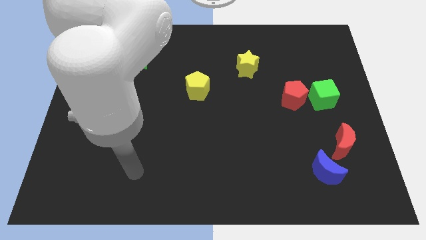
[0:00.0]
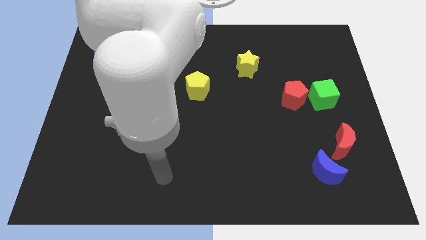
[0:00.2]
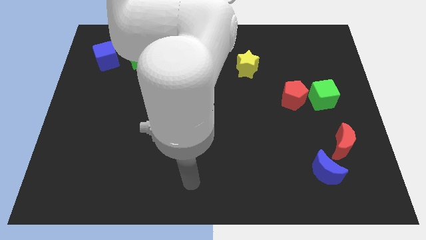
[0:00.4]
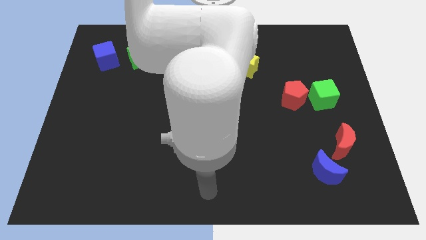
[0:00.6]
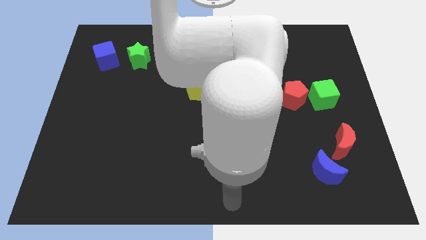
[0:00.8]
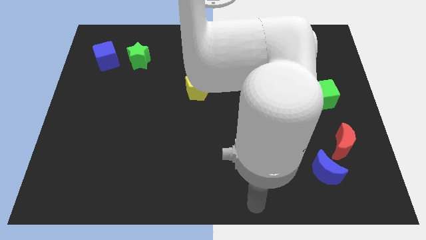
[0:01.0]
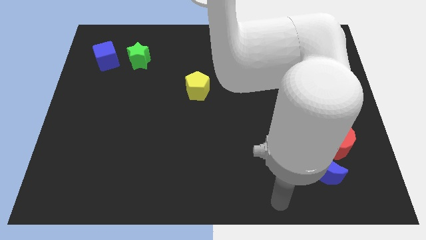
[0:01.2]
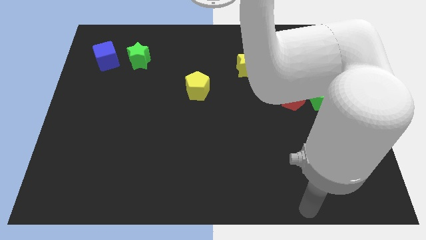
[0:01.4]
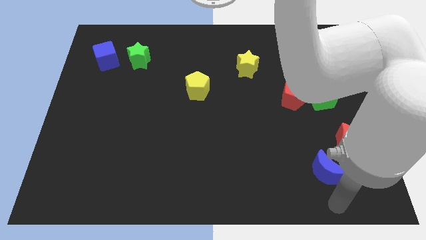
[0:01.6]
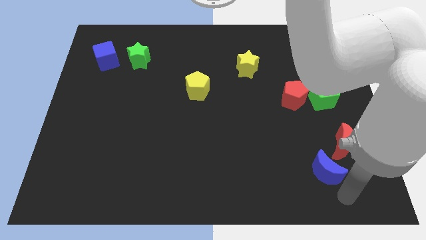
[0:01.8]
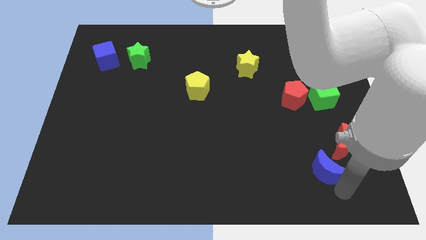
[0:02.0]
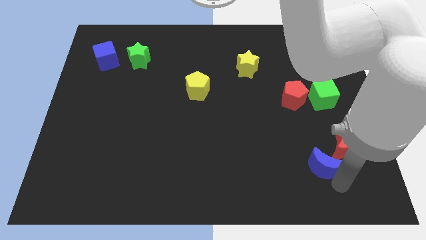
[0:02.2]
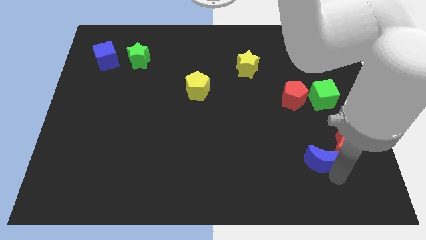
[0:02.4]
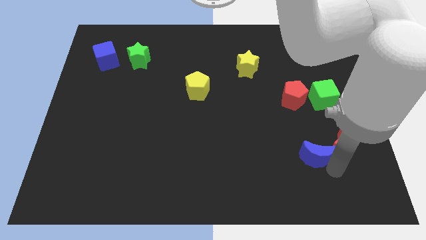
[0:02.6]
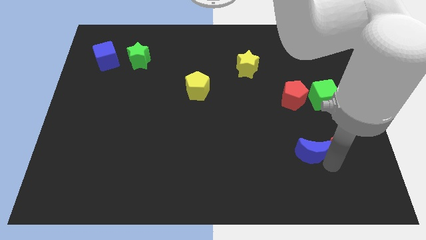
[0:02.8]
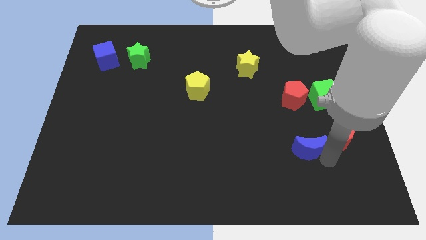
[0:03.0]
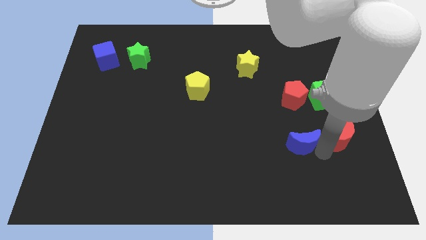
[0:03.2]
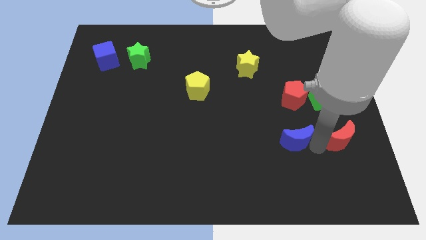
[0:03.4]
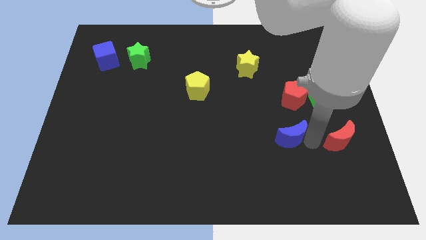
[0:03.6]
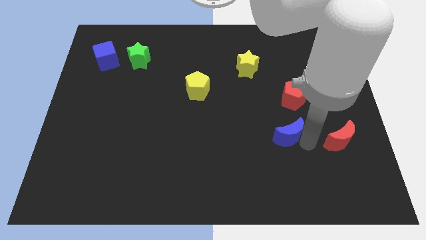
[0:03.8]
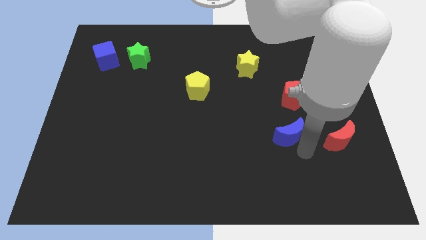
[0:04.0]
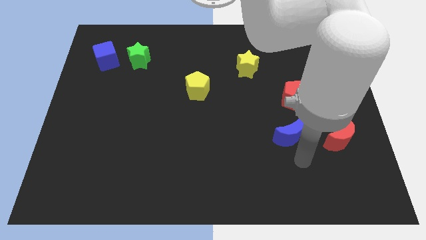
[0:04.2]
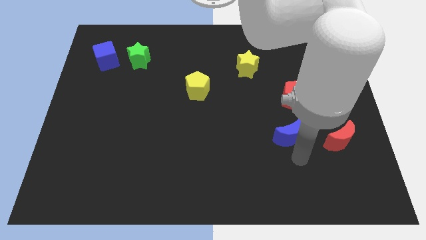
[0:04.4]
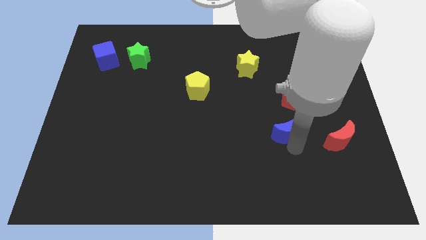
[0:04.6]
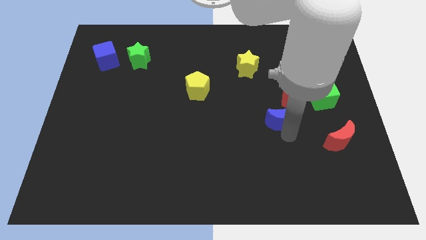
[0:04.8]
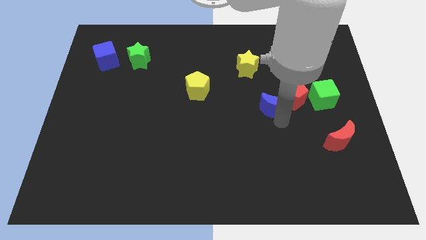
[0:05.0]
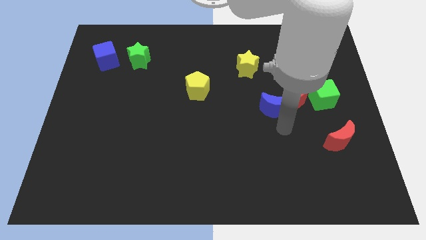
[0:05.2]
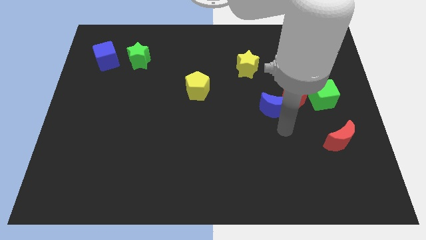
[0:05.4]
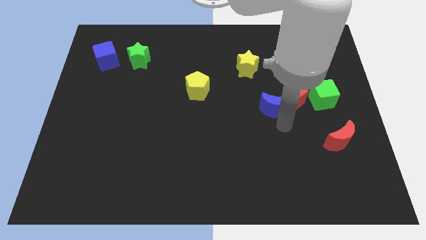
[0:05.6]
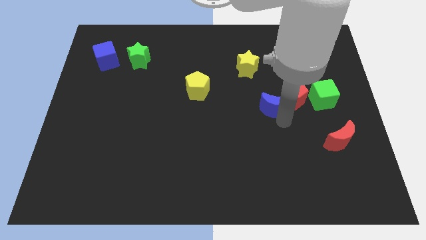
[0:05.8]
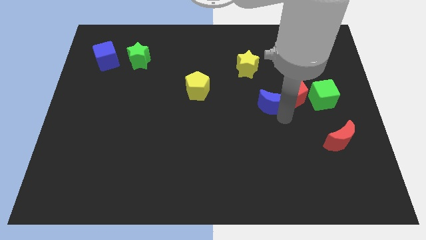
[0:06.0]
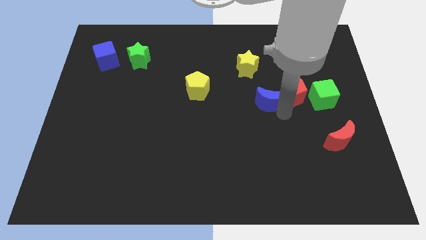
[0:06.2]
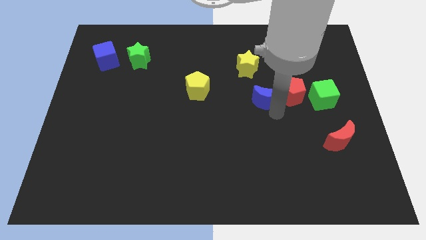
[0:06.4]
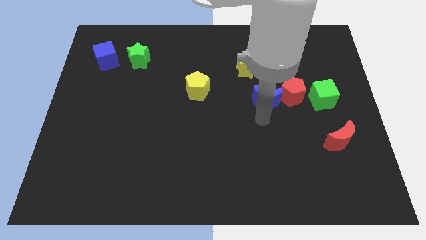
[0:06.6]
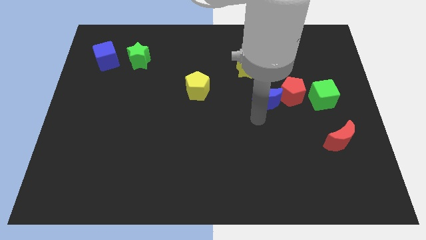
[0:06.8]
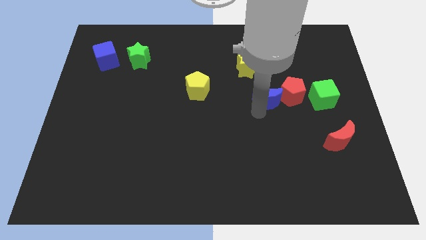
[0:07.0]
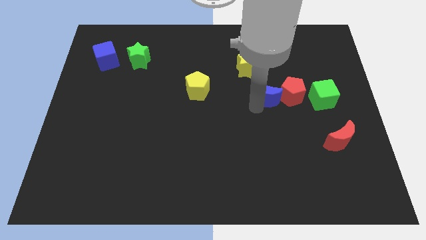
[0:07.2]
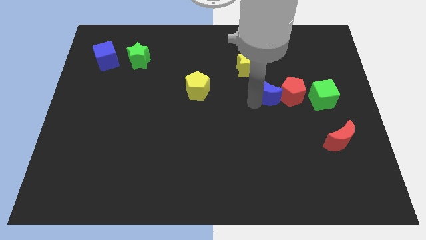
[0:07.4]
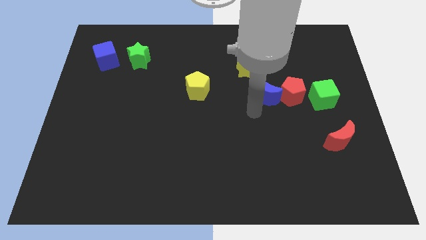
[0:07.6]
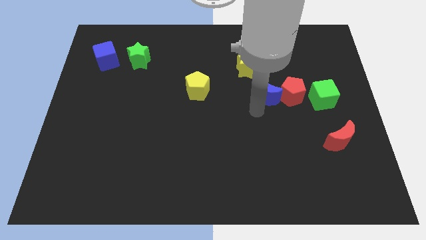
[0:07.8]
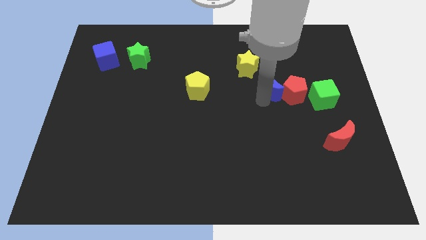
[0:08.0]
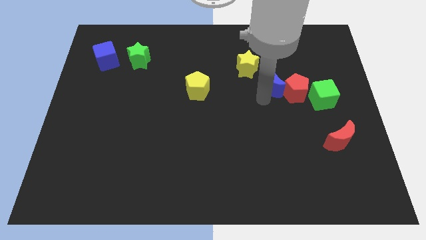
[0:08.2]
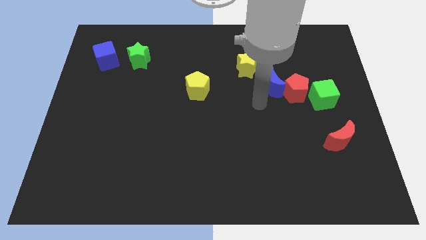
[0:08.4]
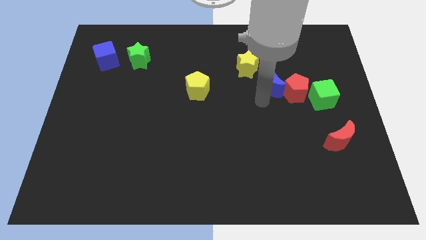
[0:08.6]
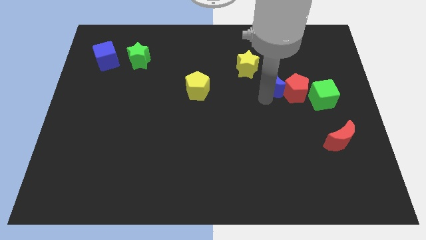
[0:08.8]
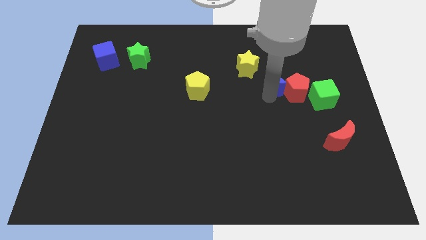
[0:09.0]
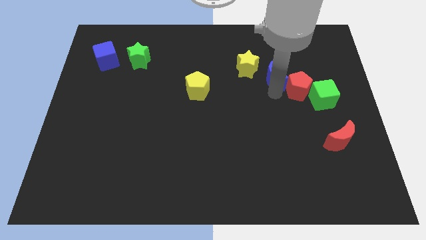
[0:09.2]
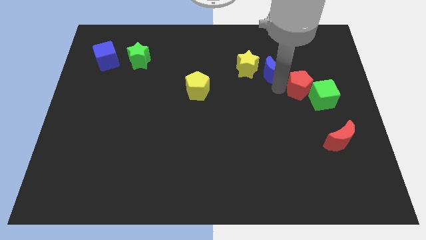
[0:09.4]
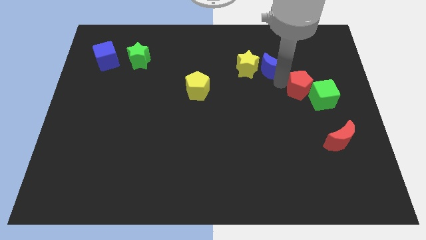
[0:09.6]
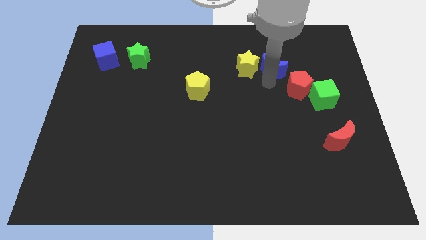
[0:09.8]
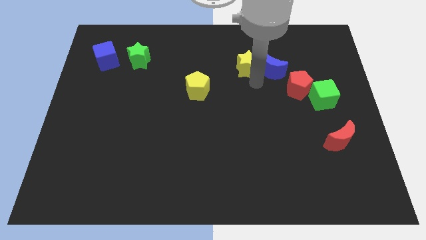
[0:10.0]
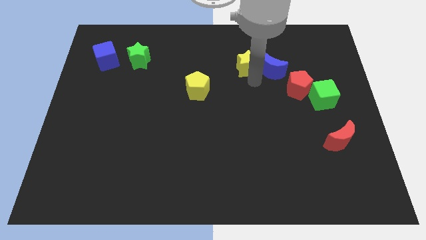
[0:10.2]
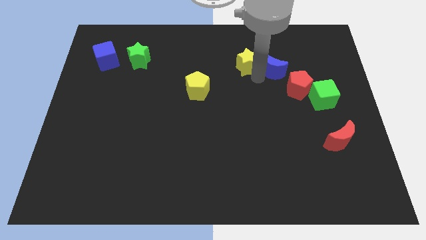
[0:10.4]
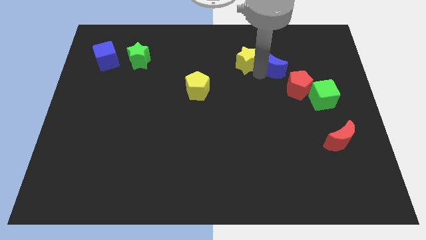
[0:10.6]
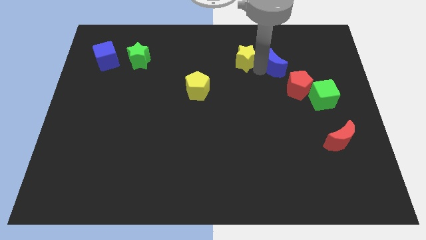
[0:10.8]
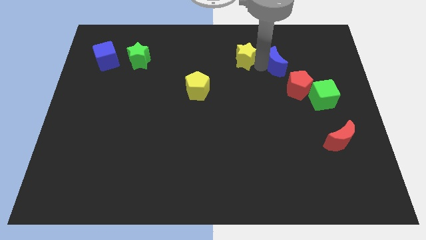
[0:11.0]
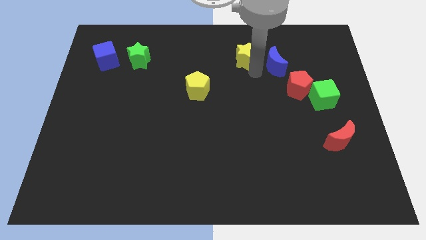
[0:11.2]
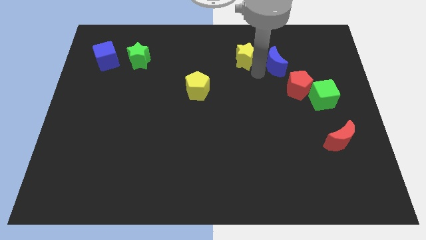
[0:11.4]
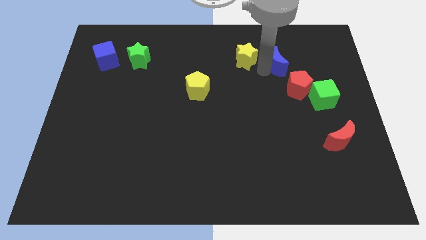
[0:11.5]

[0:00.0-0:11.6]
put the blue moon above the red pentagon

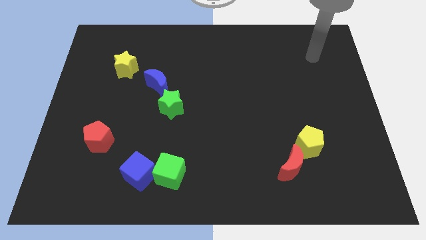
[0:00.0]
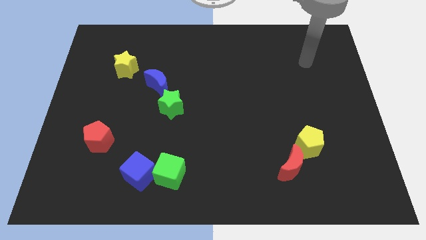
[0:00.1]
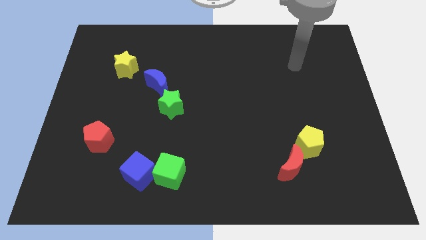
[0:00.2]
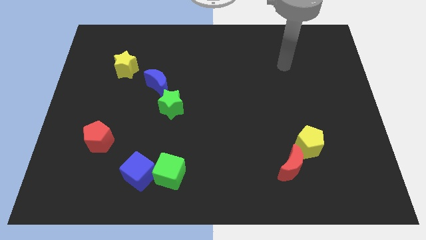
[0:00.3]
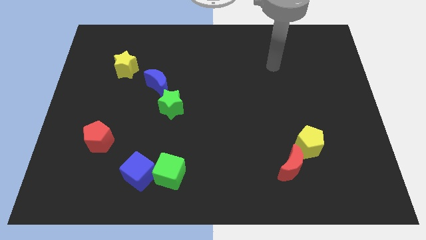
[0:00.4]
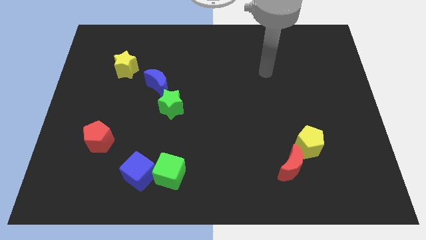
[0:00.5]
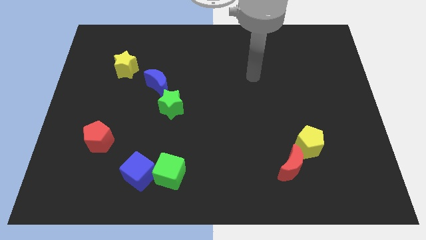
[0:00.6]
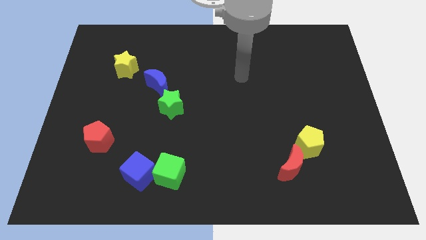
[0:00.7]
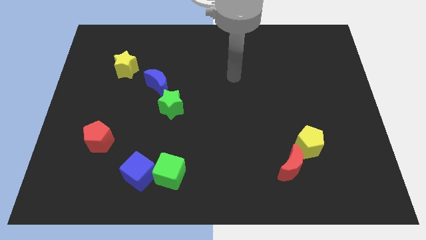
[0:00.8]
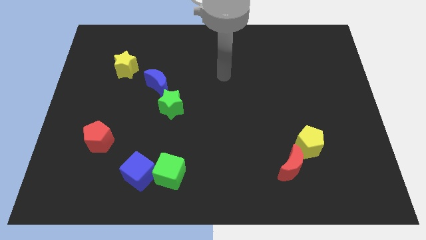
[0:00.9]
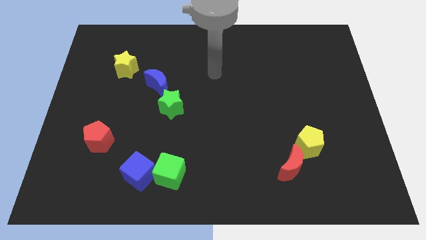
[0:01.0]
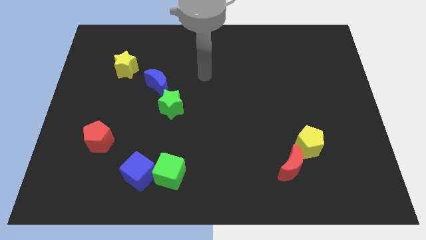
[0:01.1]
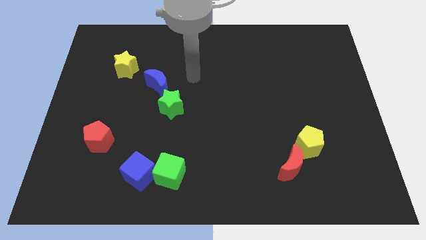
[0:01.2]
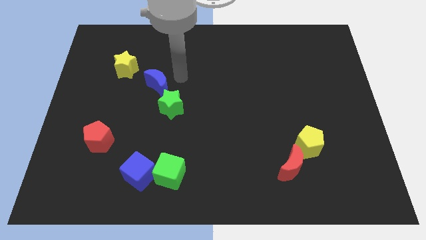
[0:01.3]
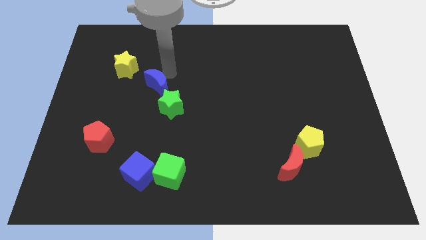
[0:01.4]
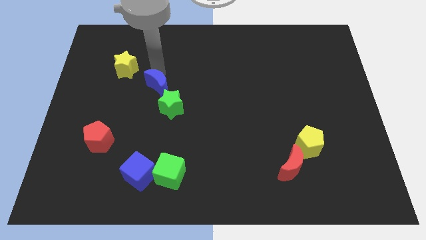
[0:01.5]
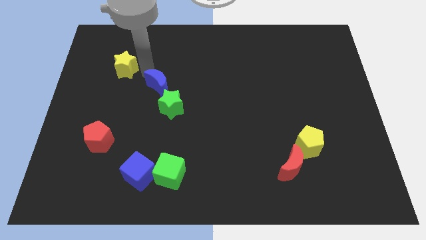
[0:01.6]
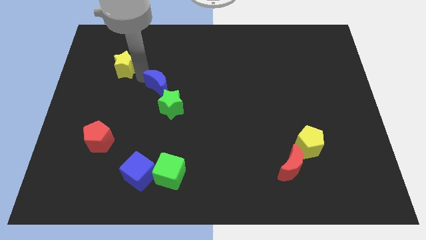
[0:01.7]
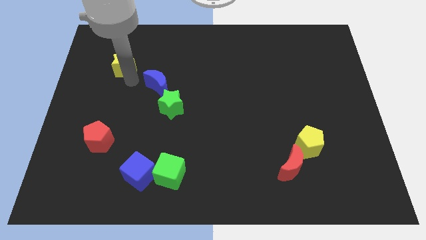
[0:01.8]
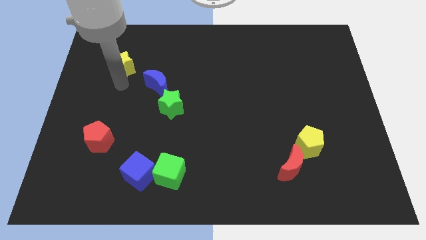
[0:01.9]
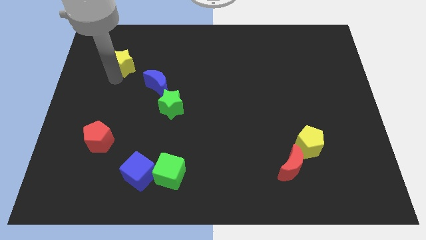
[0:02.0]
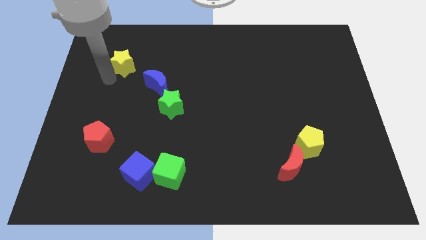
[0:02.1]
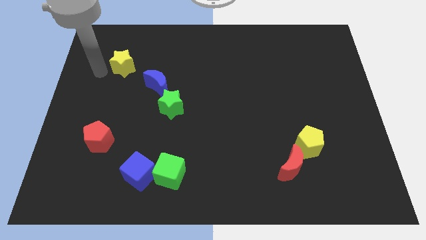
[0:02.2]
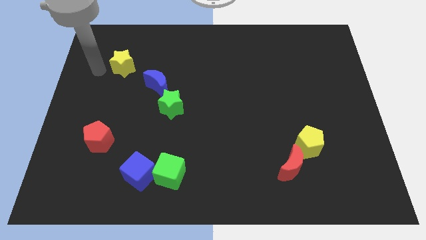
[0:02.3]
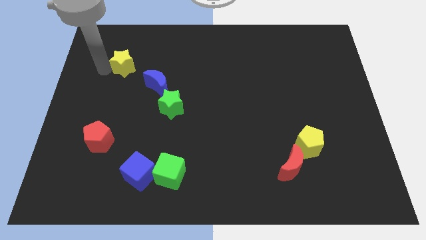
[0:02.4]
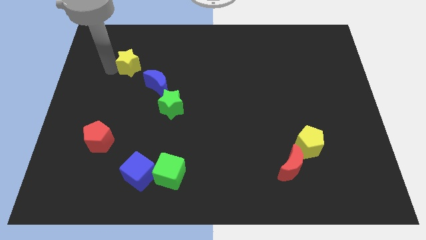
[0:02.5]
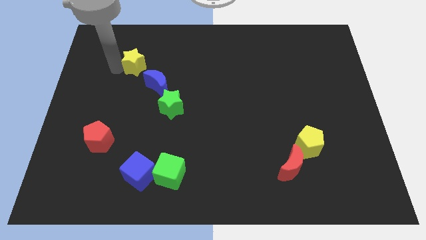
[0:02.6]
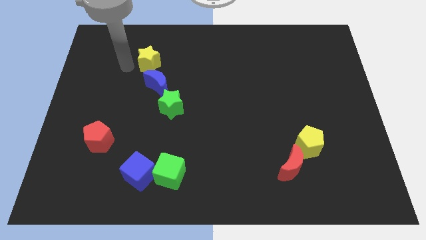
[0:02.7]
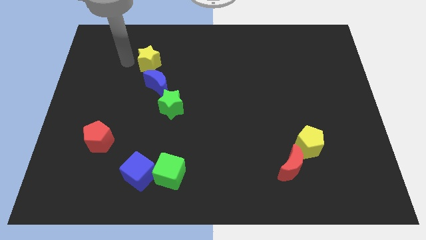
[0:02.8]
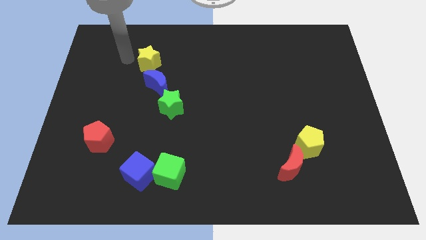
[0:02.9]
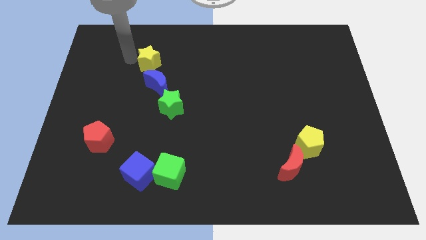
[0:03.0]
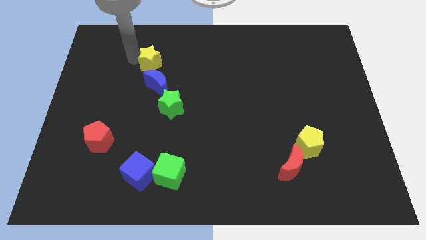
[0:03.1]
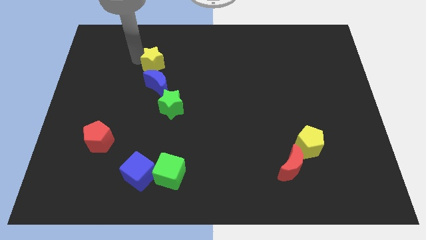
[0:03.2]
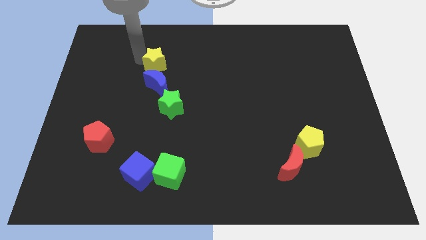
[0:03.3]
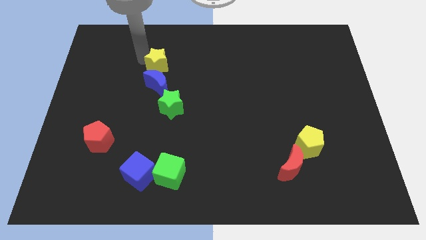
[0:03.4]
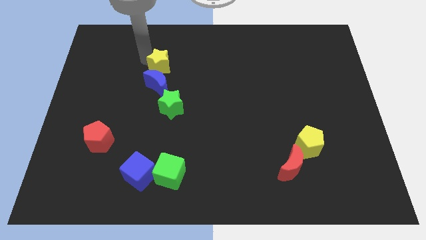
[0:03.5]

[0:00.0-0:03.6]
push the yellow star diagonally up and to the right of the blue moon
